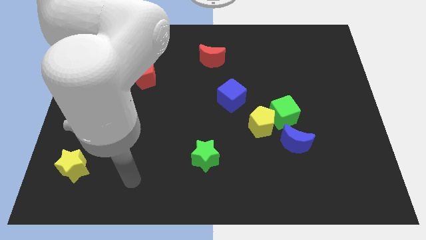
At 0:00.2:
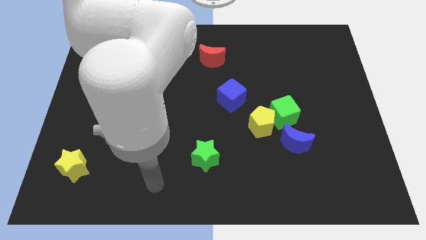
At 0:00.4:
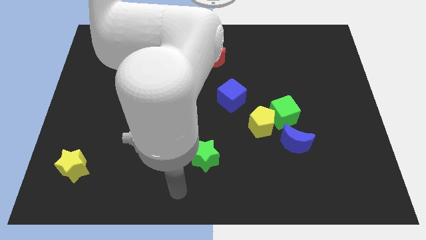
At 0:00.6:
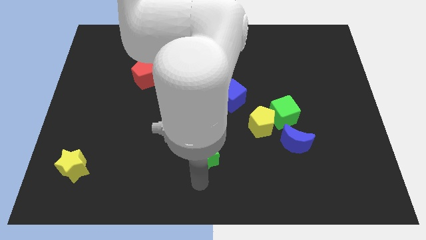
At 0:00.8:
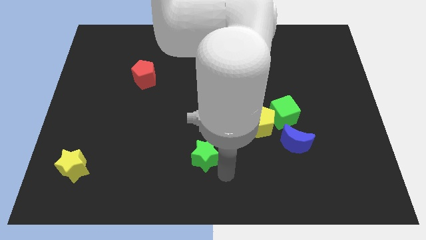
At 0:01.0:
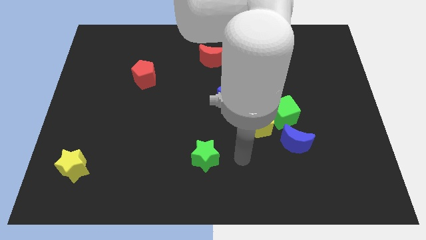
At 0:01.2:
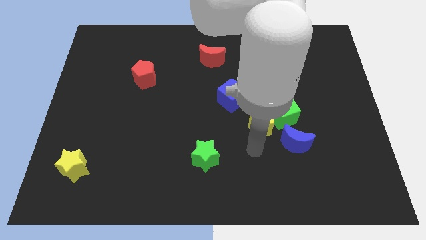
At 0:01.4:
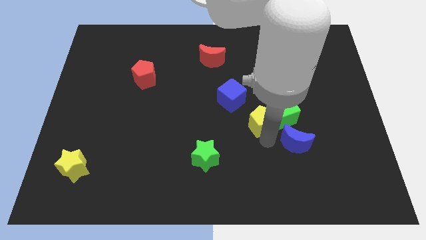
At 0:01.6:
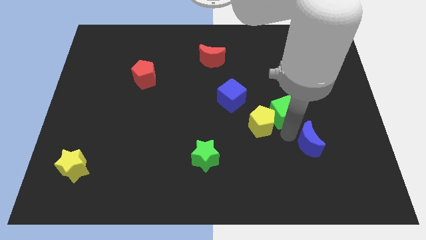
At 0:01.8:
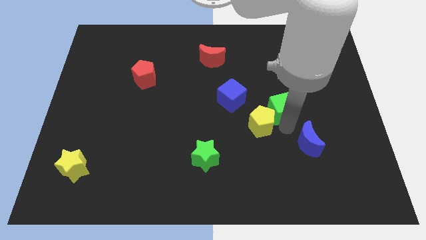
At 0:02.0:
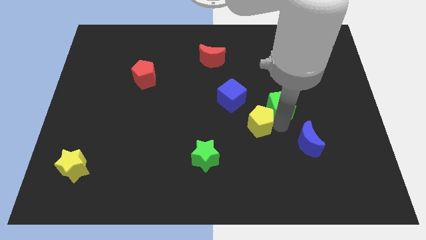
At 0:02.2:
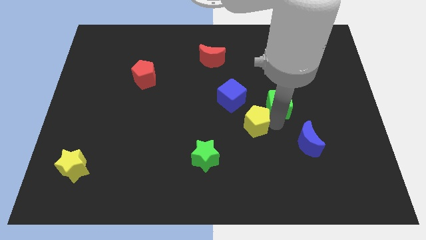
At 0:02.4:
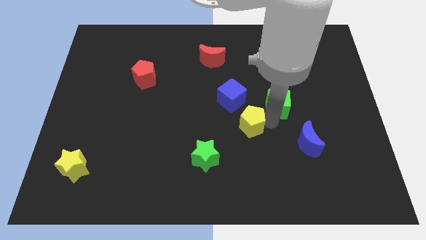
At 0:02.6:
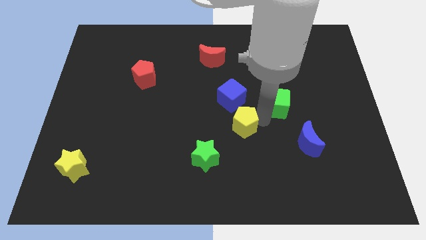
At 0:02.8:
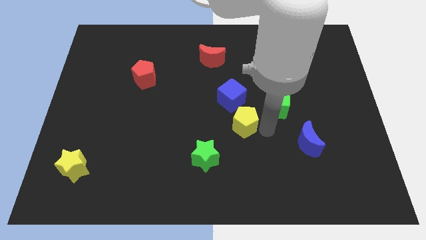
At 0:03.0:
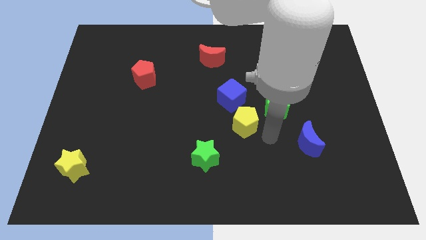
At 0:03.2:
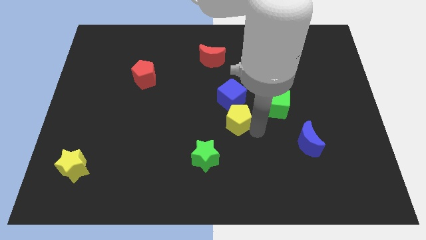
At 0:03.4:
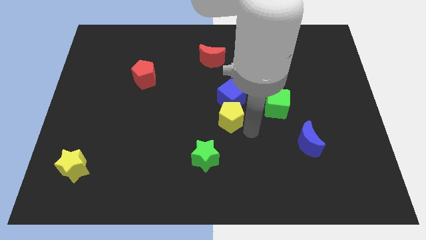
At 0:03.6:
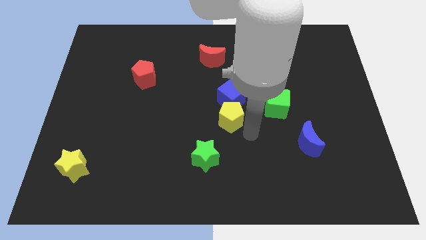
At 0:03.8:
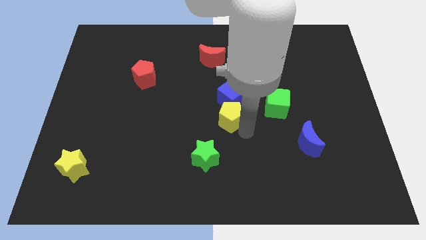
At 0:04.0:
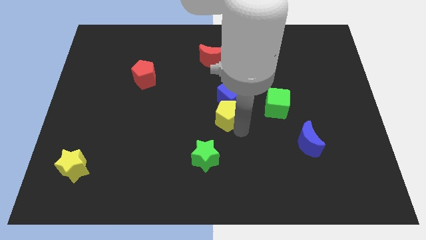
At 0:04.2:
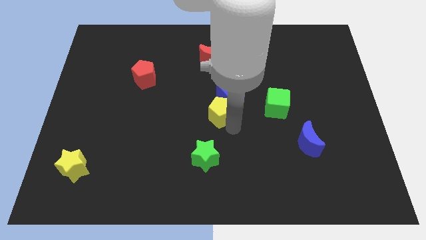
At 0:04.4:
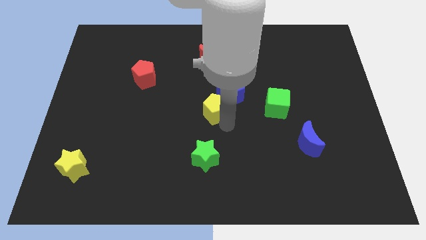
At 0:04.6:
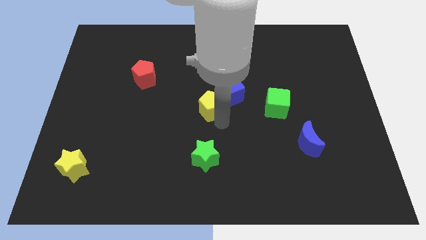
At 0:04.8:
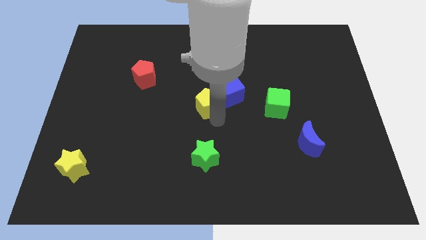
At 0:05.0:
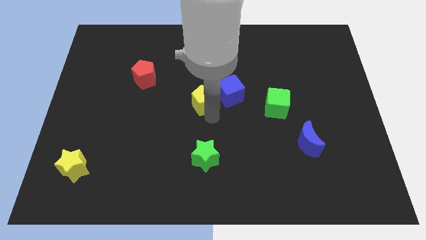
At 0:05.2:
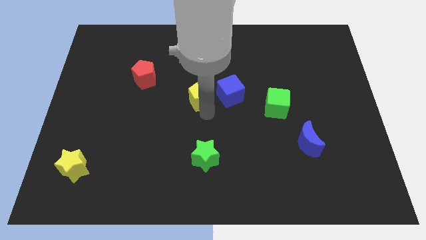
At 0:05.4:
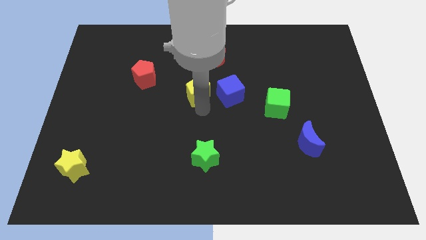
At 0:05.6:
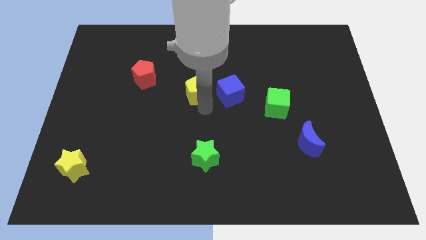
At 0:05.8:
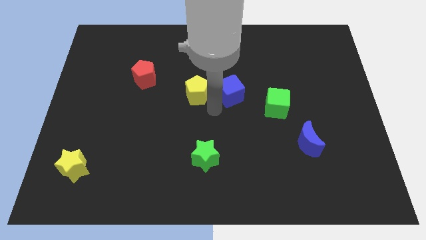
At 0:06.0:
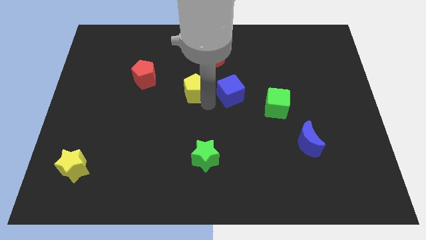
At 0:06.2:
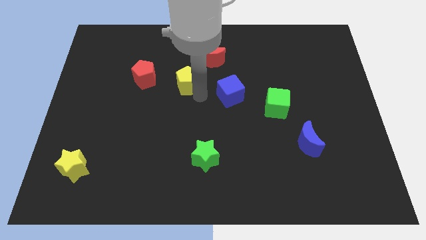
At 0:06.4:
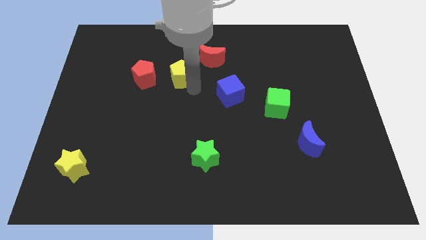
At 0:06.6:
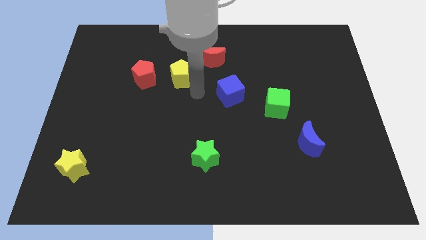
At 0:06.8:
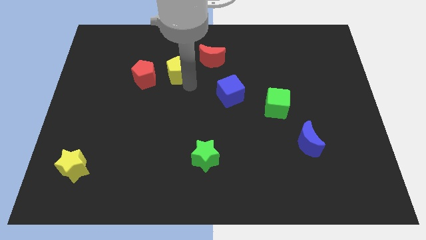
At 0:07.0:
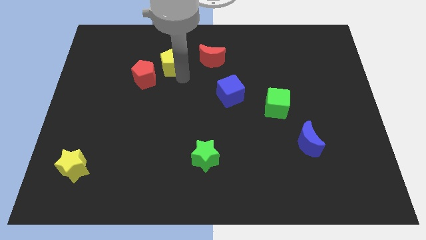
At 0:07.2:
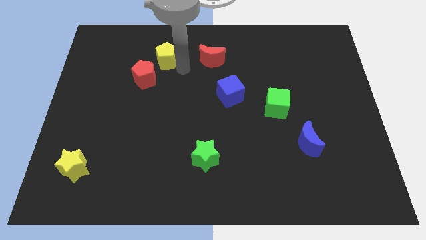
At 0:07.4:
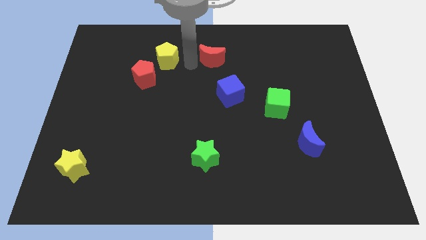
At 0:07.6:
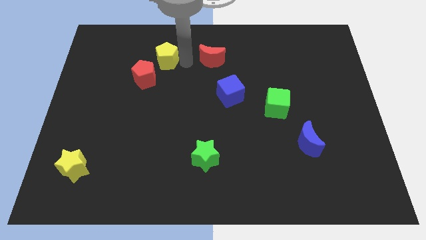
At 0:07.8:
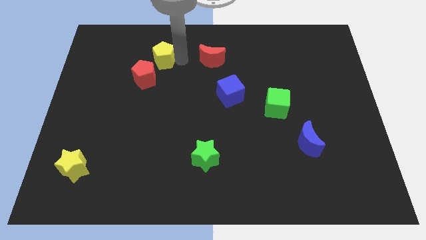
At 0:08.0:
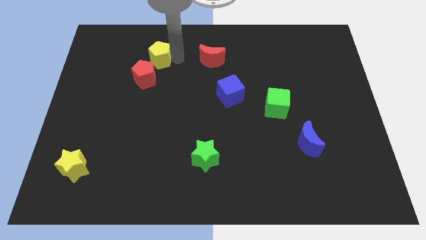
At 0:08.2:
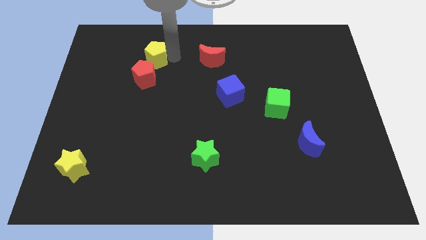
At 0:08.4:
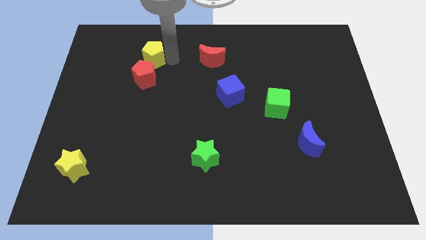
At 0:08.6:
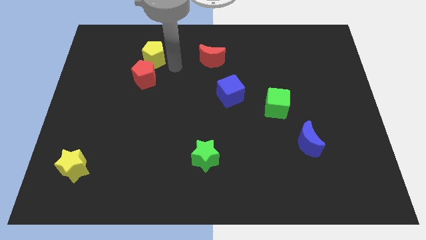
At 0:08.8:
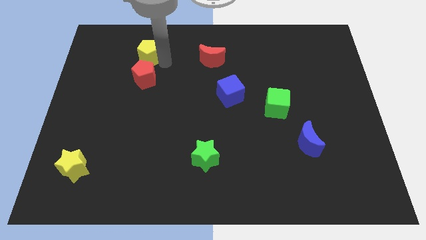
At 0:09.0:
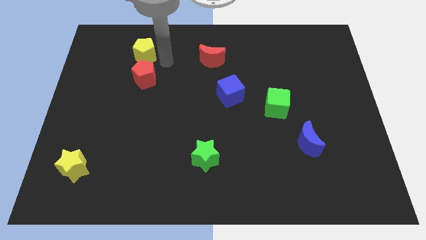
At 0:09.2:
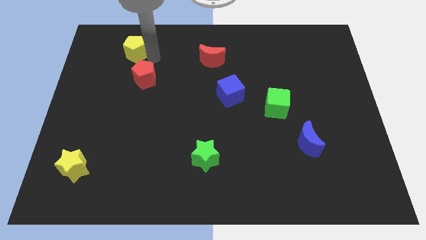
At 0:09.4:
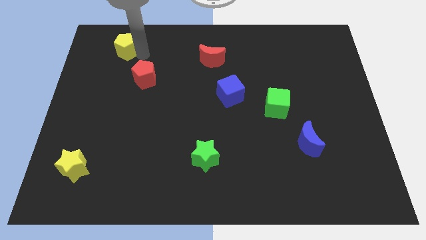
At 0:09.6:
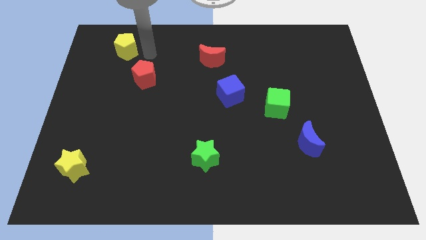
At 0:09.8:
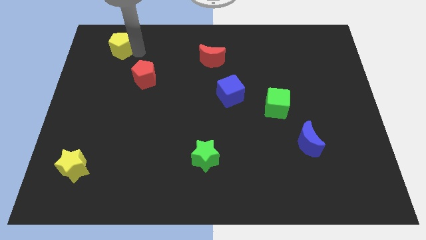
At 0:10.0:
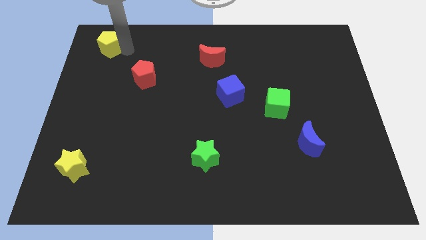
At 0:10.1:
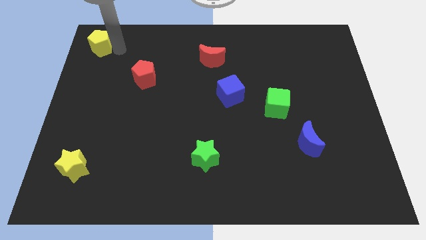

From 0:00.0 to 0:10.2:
push the yellow pentagon to the top left of the board

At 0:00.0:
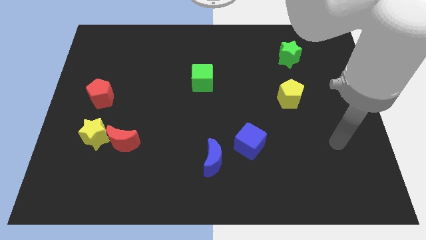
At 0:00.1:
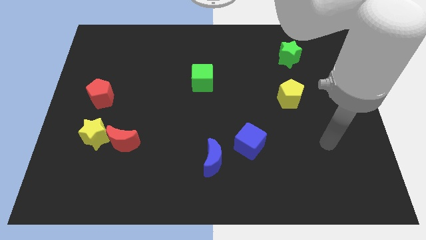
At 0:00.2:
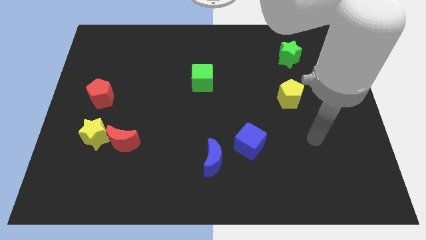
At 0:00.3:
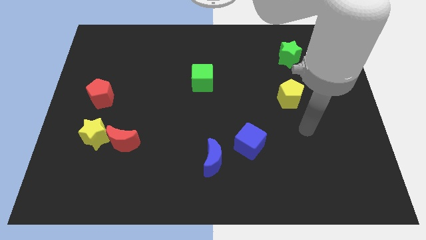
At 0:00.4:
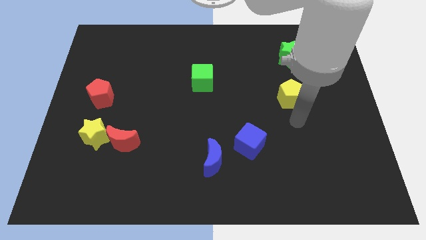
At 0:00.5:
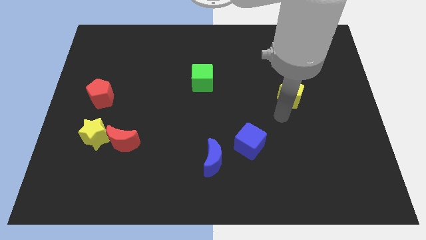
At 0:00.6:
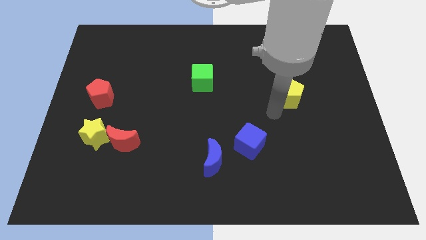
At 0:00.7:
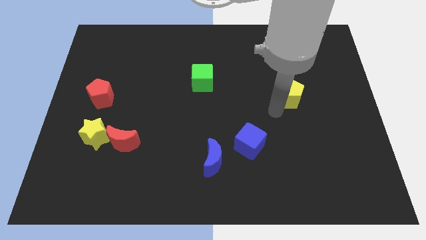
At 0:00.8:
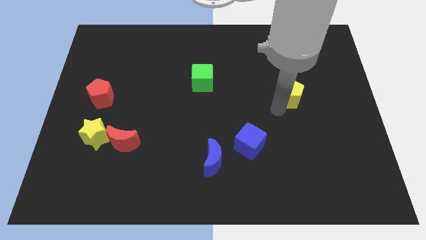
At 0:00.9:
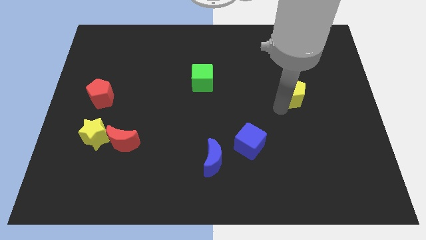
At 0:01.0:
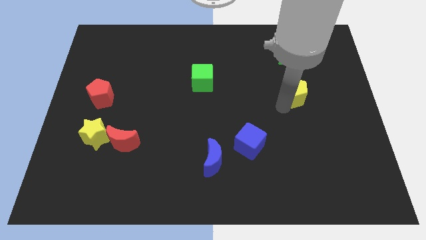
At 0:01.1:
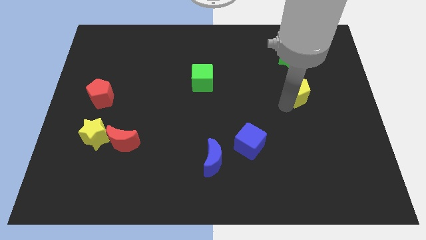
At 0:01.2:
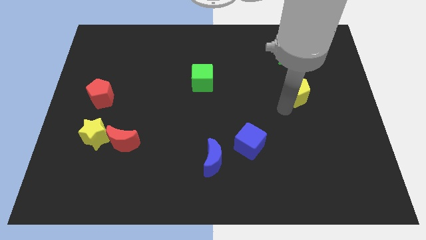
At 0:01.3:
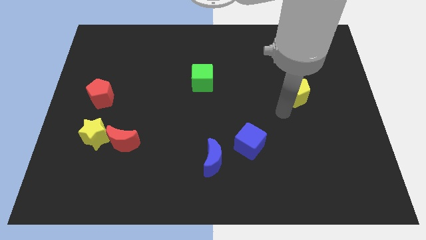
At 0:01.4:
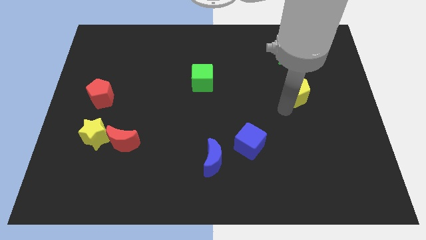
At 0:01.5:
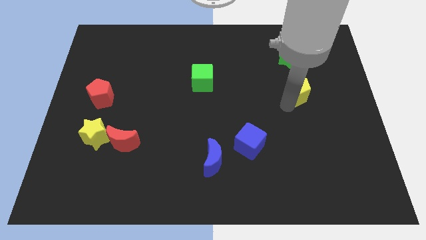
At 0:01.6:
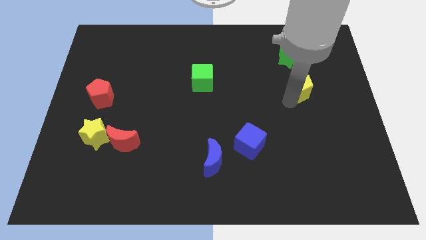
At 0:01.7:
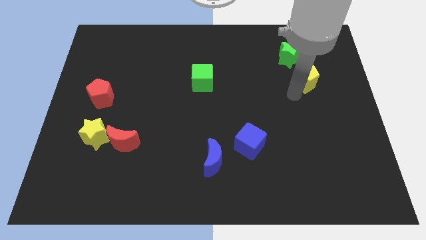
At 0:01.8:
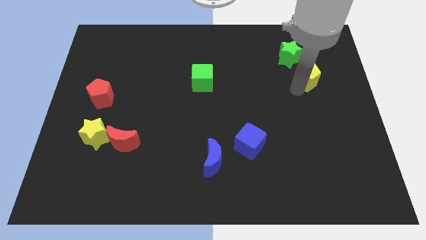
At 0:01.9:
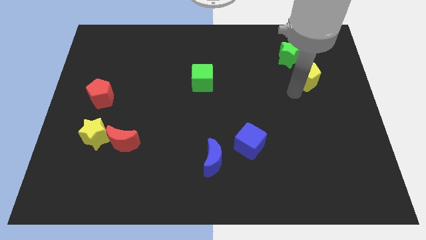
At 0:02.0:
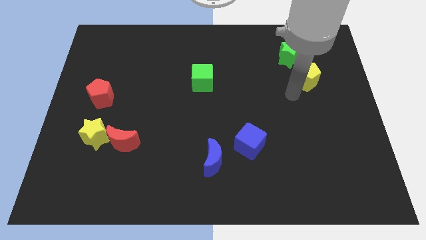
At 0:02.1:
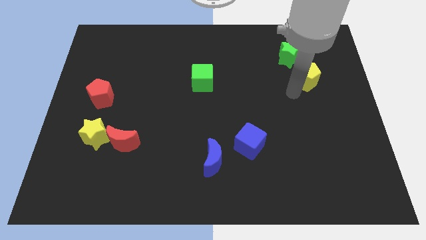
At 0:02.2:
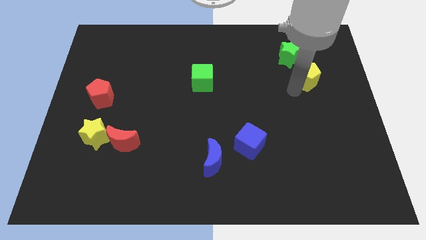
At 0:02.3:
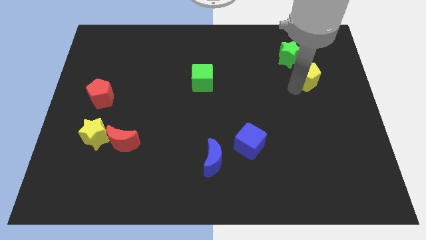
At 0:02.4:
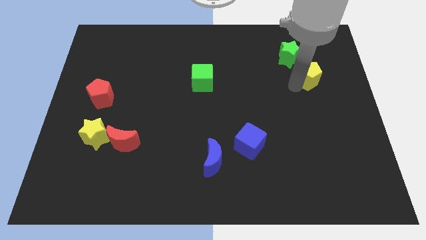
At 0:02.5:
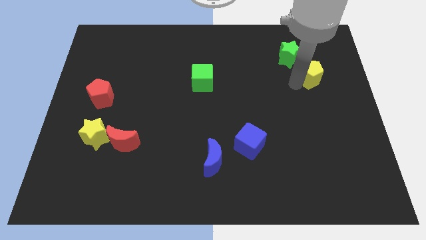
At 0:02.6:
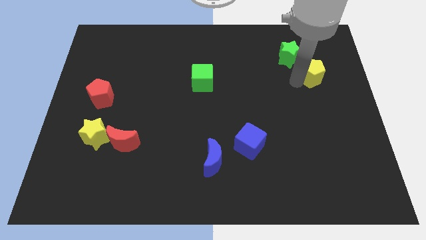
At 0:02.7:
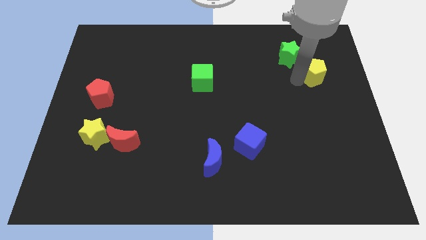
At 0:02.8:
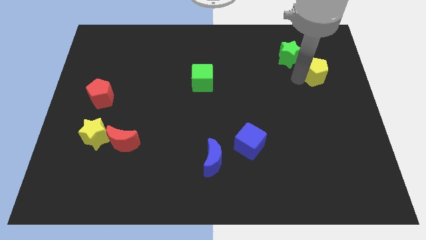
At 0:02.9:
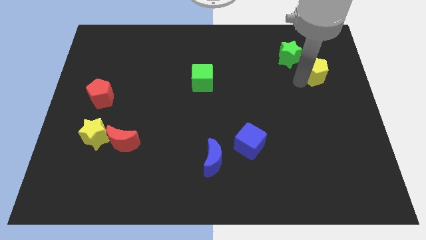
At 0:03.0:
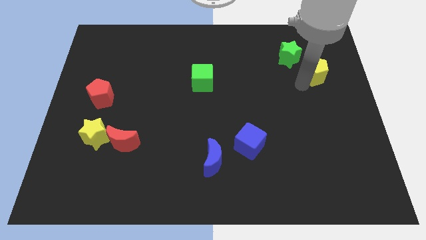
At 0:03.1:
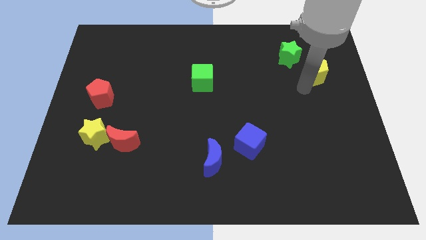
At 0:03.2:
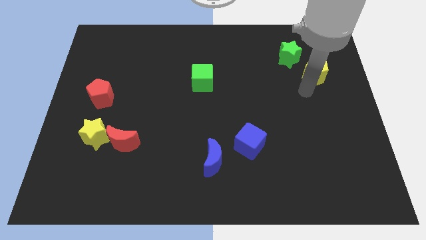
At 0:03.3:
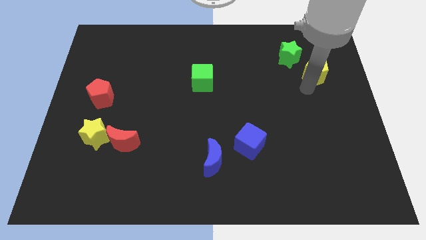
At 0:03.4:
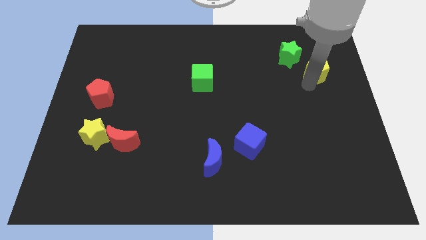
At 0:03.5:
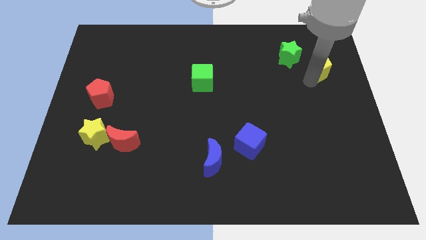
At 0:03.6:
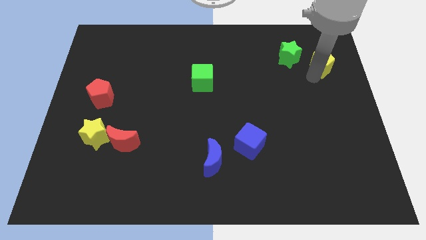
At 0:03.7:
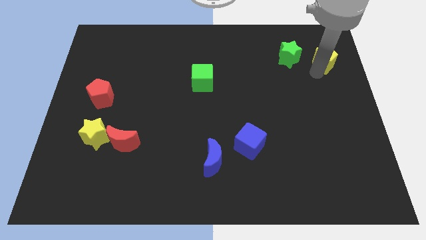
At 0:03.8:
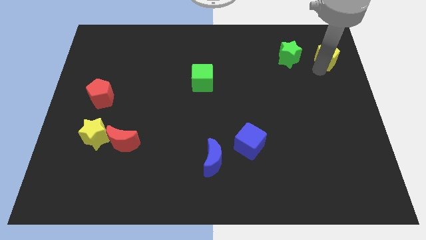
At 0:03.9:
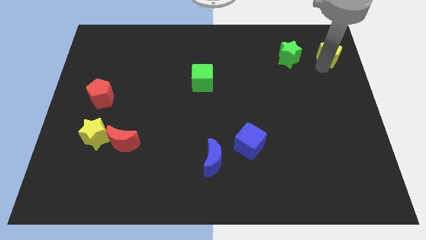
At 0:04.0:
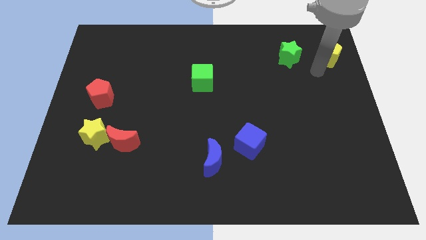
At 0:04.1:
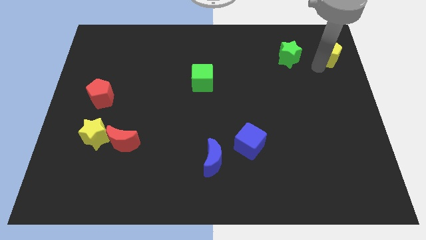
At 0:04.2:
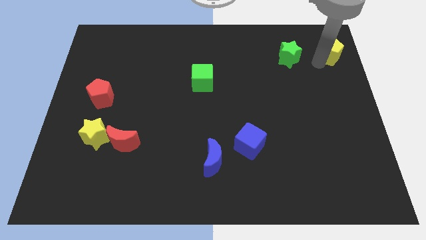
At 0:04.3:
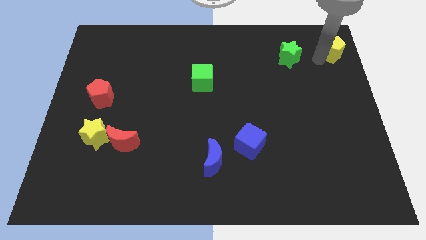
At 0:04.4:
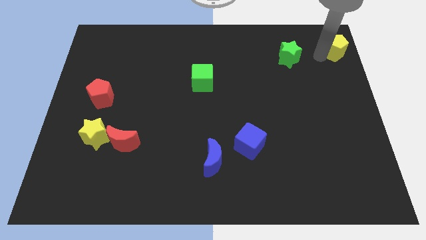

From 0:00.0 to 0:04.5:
put the yellow pentagon to the top right corner
